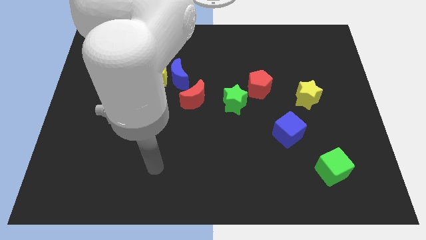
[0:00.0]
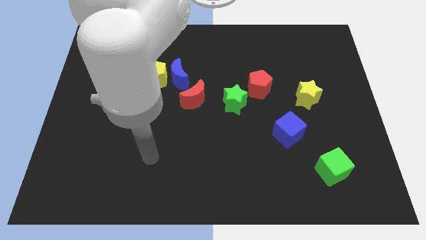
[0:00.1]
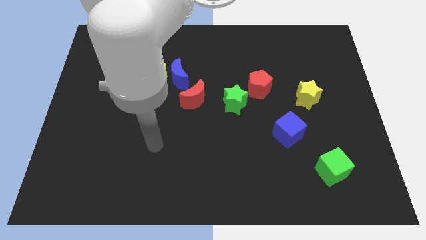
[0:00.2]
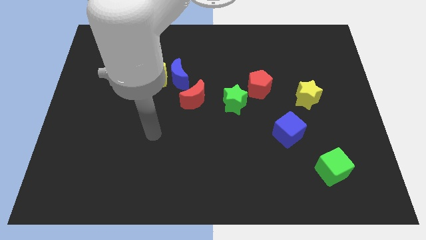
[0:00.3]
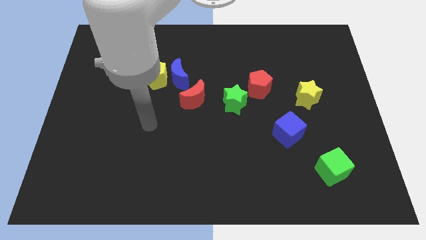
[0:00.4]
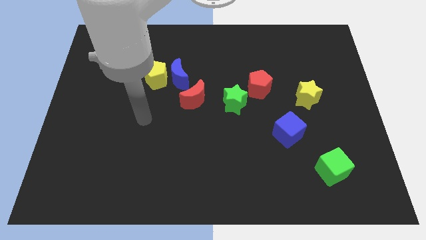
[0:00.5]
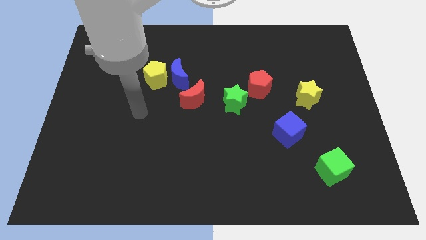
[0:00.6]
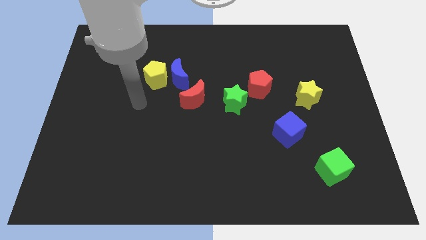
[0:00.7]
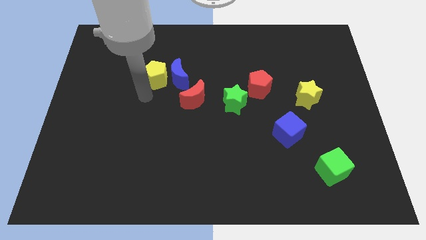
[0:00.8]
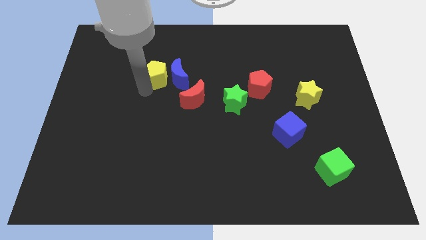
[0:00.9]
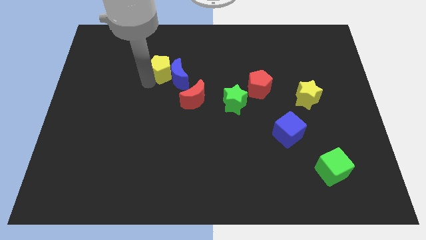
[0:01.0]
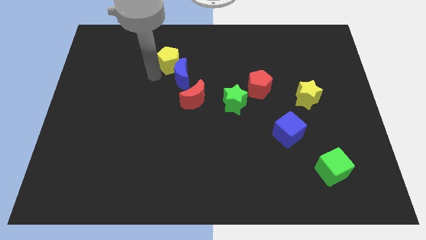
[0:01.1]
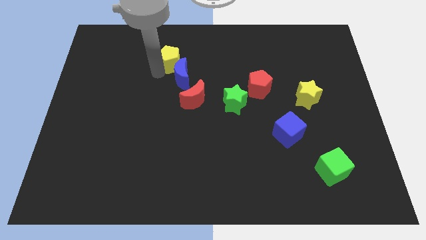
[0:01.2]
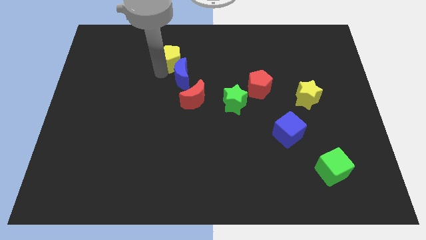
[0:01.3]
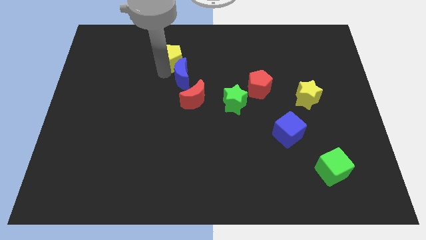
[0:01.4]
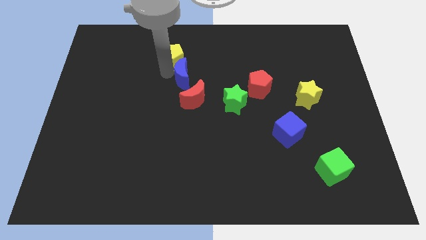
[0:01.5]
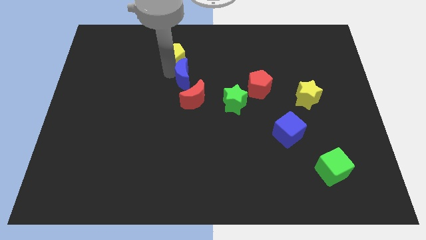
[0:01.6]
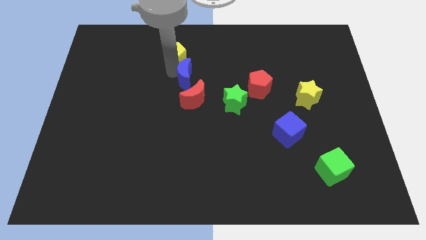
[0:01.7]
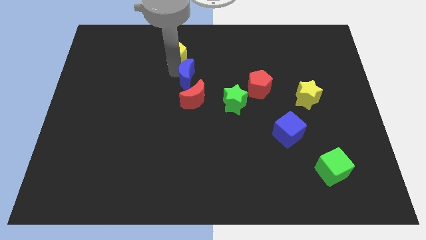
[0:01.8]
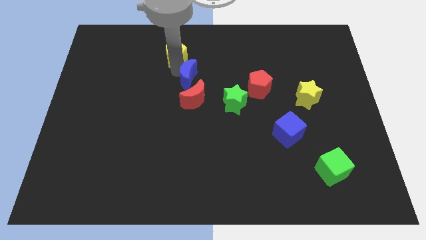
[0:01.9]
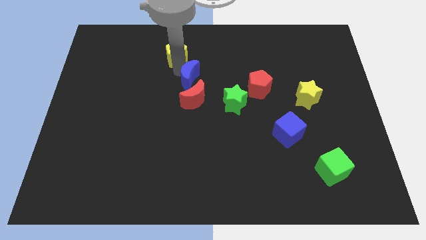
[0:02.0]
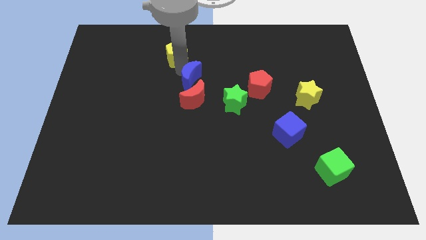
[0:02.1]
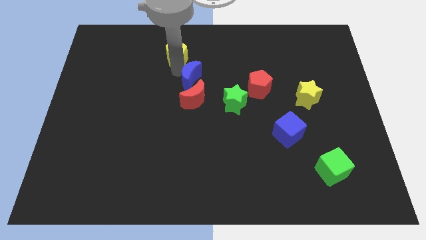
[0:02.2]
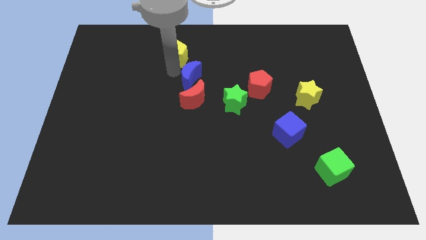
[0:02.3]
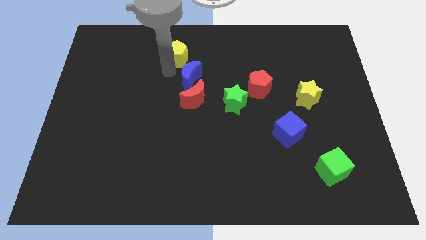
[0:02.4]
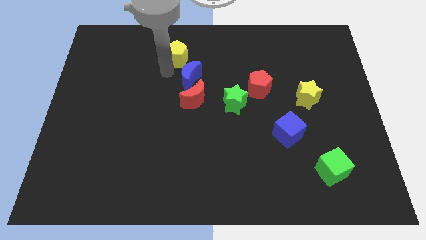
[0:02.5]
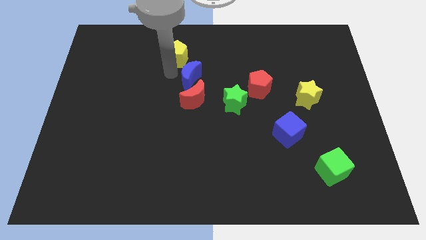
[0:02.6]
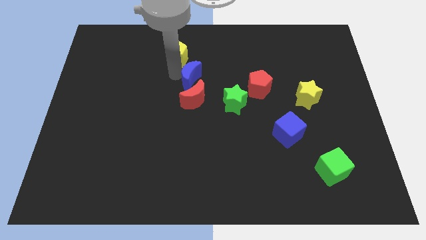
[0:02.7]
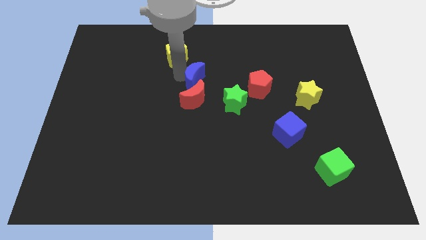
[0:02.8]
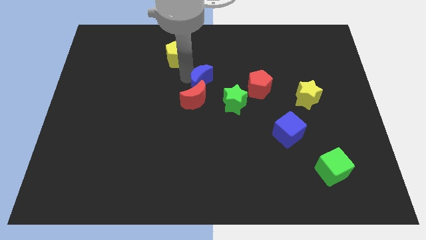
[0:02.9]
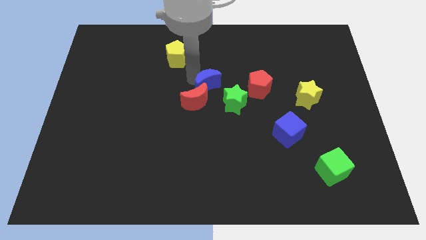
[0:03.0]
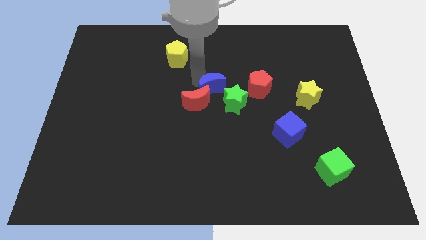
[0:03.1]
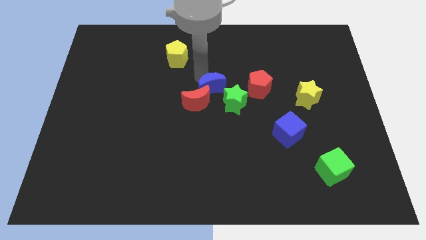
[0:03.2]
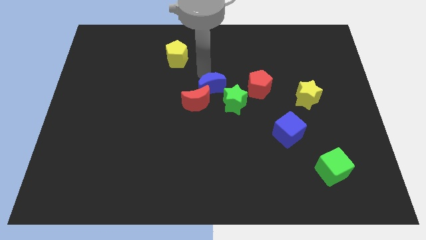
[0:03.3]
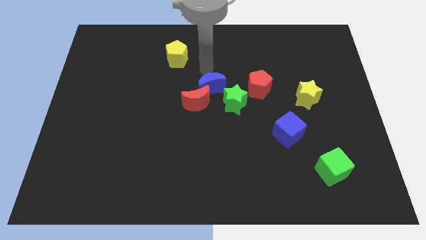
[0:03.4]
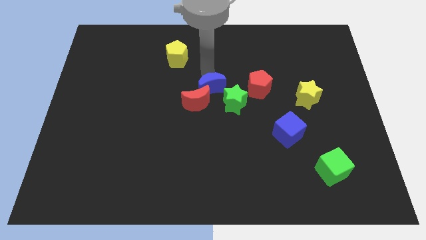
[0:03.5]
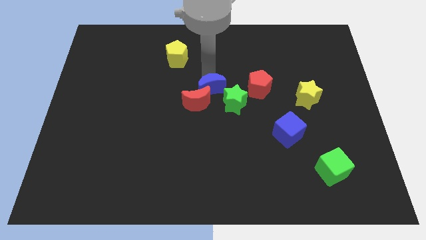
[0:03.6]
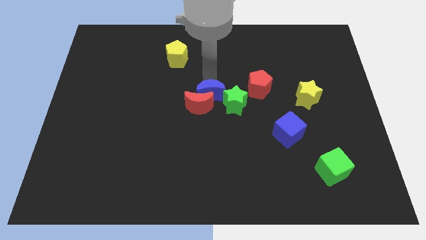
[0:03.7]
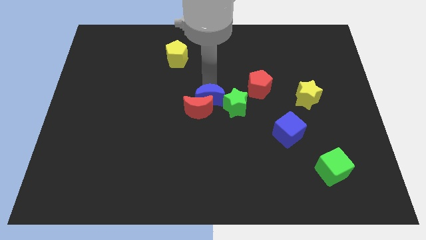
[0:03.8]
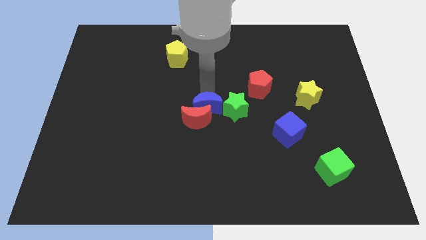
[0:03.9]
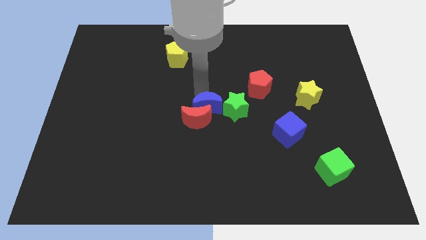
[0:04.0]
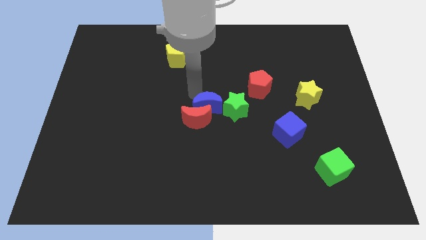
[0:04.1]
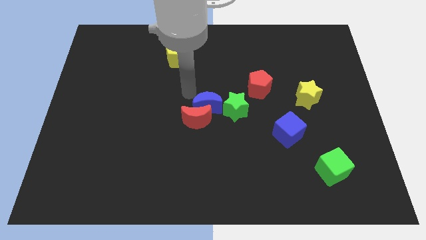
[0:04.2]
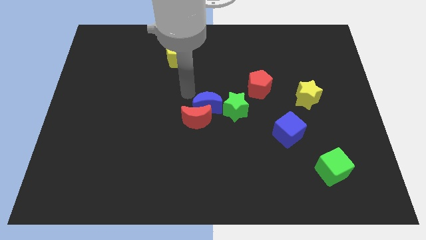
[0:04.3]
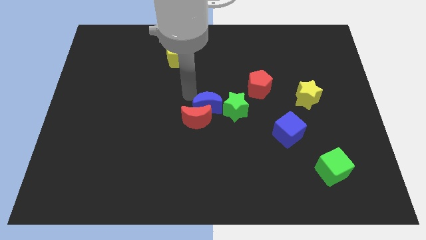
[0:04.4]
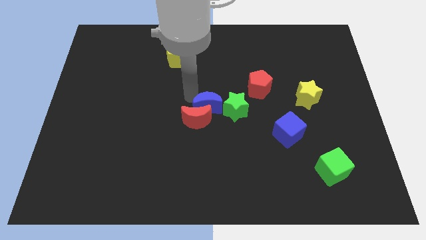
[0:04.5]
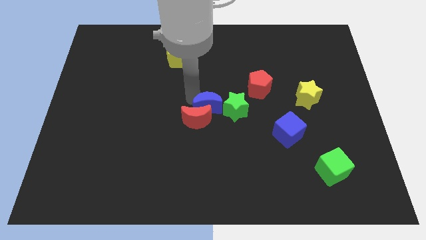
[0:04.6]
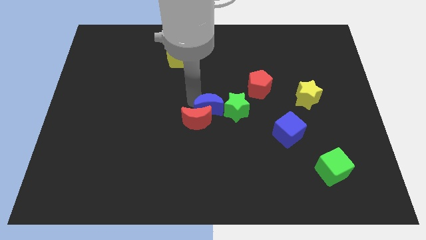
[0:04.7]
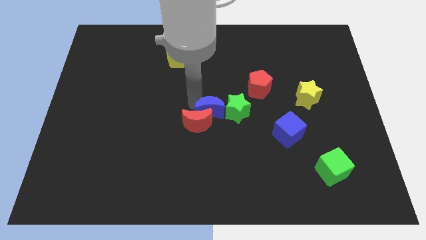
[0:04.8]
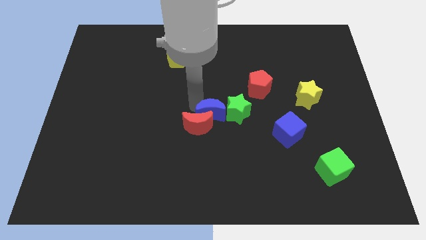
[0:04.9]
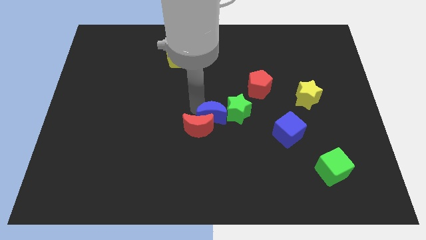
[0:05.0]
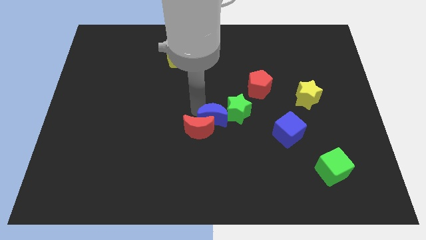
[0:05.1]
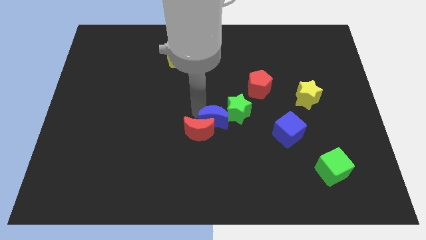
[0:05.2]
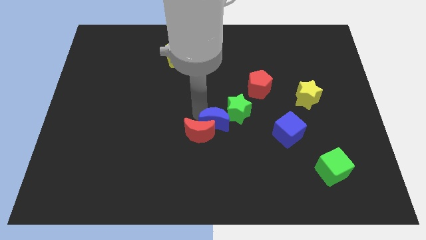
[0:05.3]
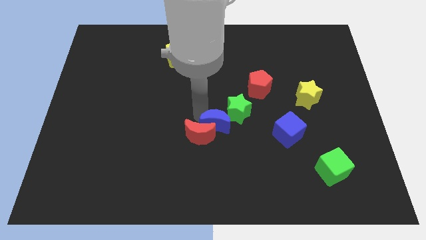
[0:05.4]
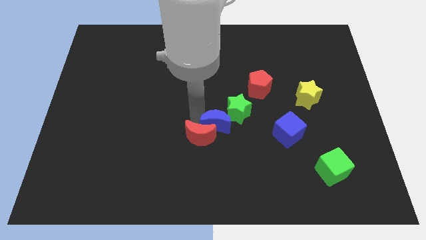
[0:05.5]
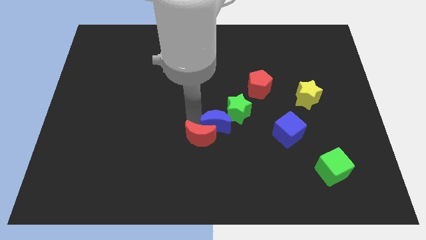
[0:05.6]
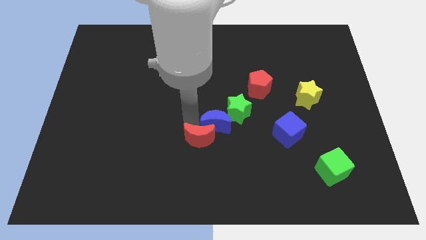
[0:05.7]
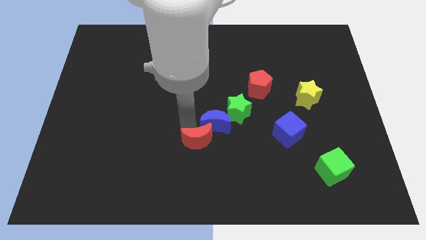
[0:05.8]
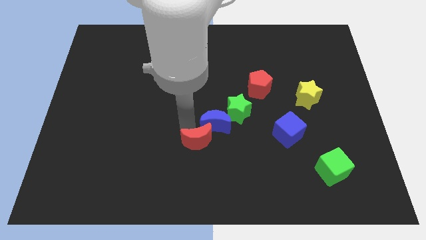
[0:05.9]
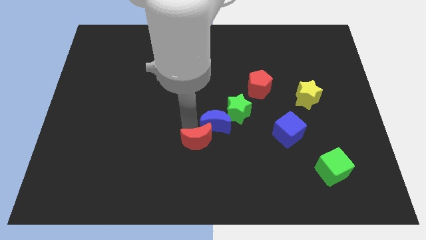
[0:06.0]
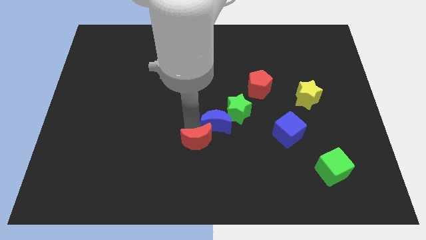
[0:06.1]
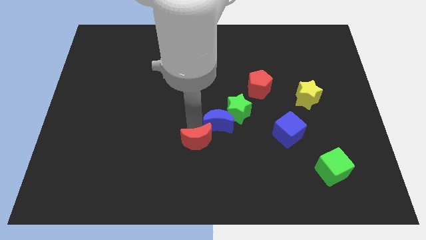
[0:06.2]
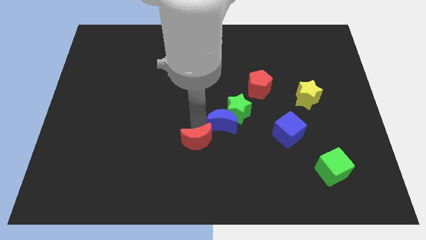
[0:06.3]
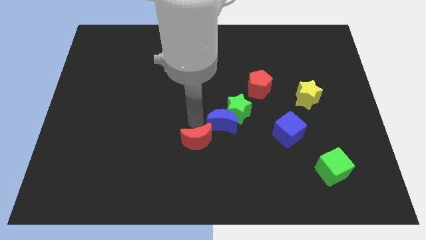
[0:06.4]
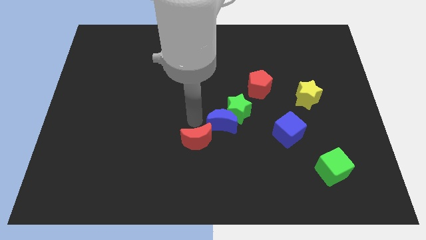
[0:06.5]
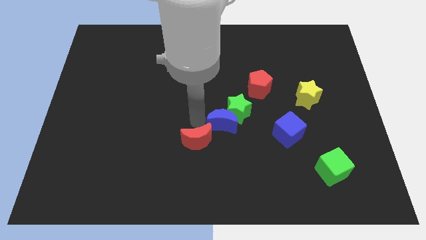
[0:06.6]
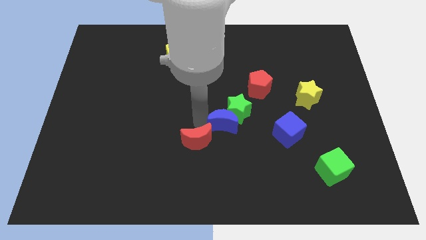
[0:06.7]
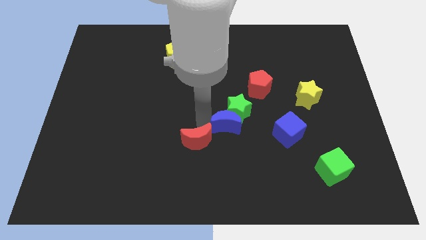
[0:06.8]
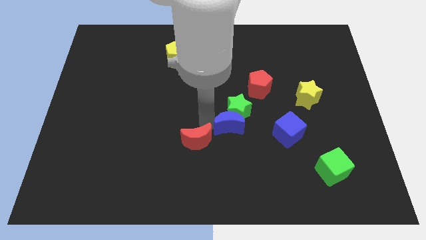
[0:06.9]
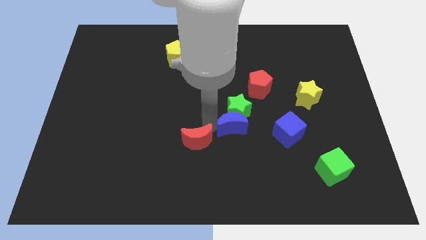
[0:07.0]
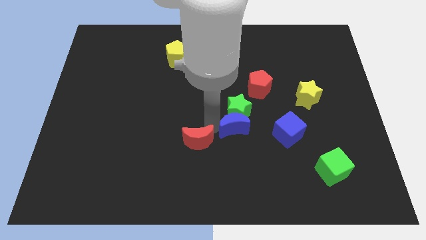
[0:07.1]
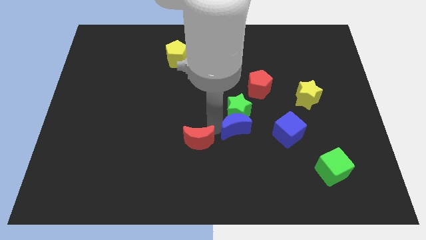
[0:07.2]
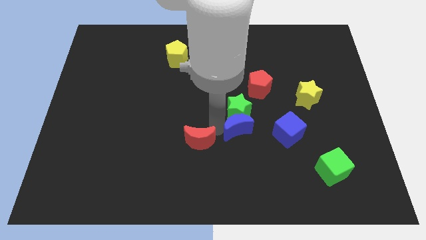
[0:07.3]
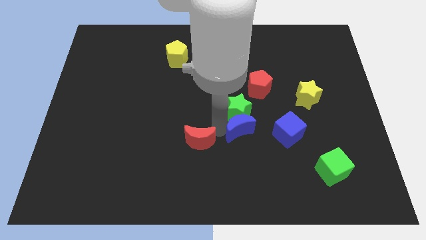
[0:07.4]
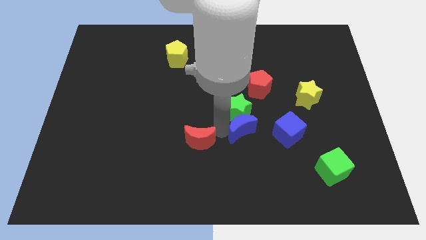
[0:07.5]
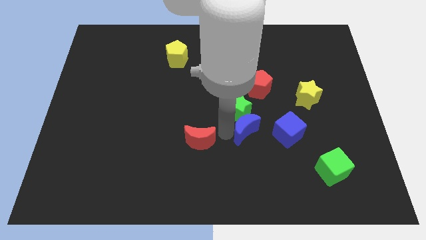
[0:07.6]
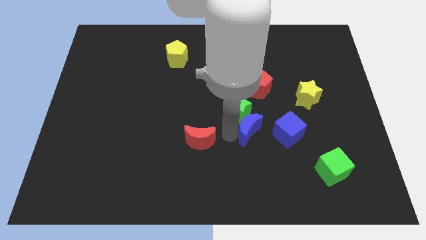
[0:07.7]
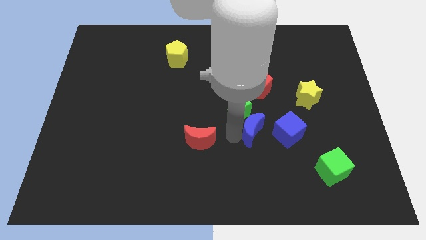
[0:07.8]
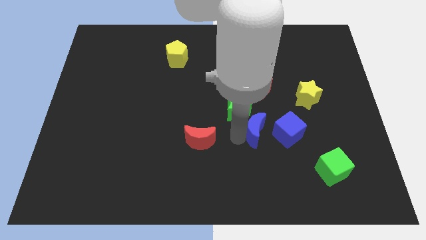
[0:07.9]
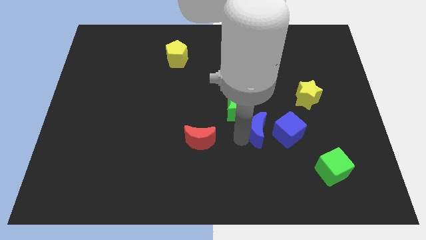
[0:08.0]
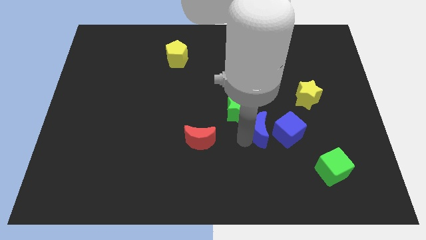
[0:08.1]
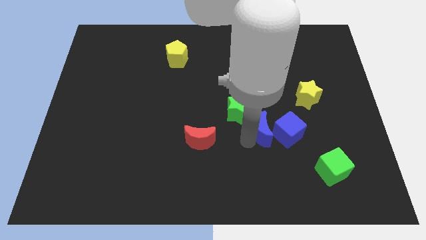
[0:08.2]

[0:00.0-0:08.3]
push the blue moon close to the blue cube
